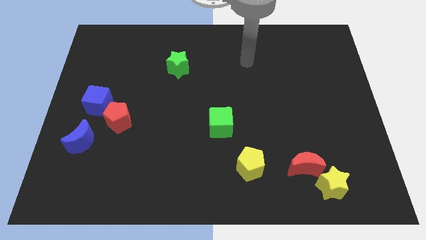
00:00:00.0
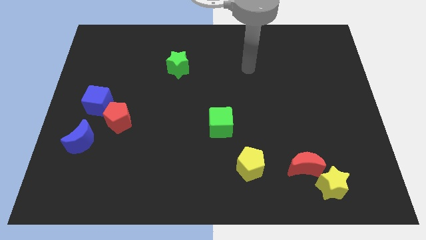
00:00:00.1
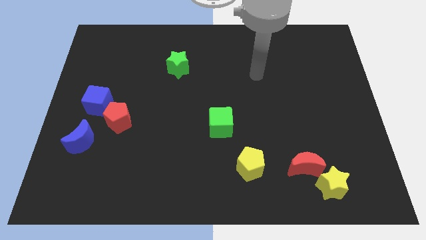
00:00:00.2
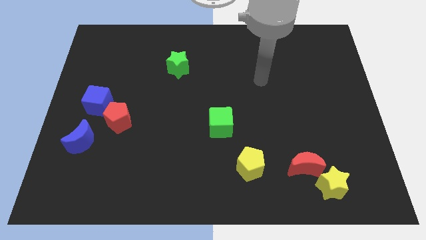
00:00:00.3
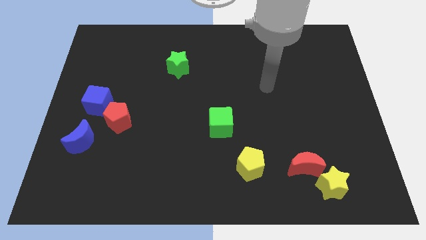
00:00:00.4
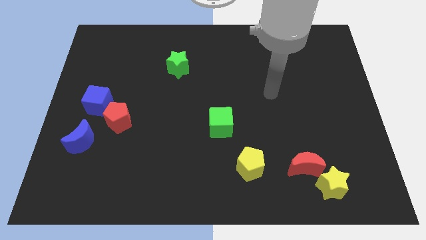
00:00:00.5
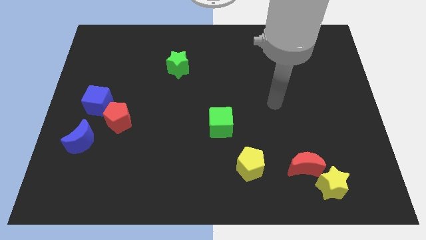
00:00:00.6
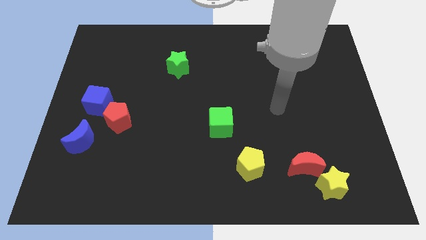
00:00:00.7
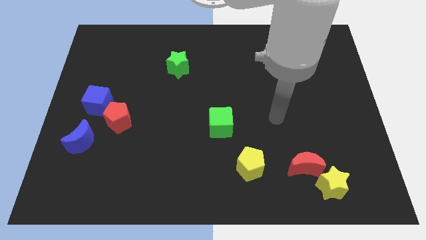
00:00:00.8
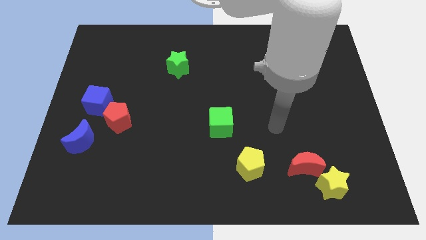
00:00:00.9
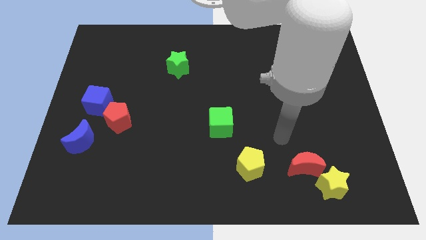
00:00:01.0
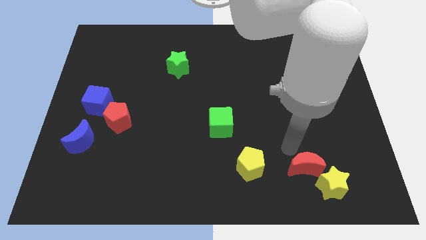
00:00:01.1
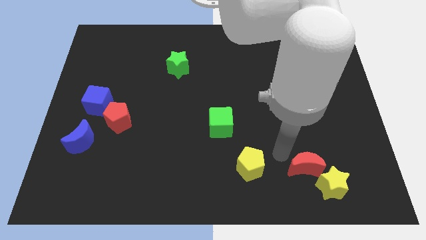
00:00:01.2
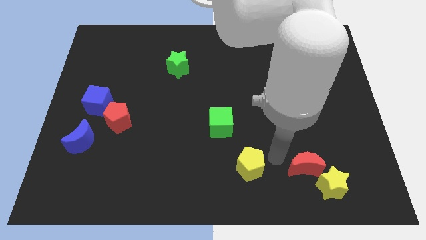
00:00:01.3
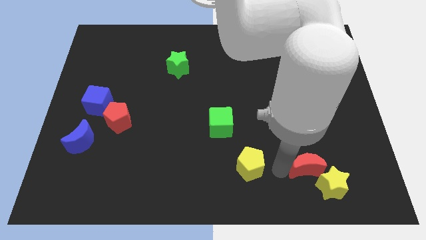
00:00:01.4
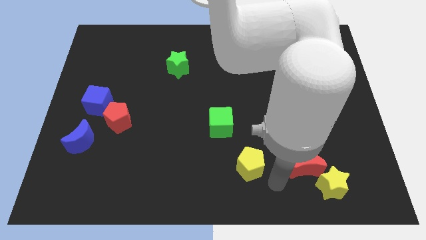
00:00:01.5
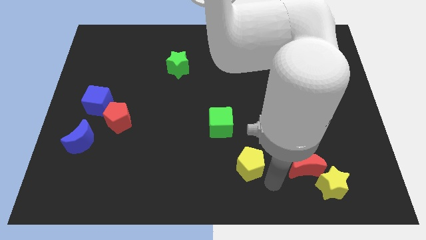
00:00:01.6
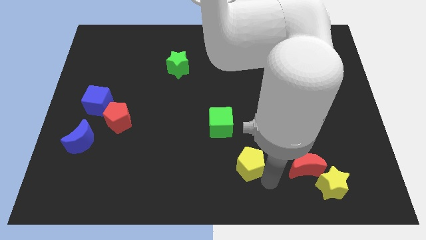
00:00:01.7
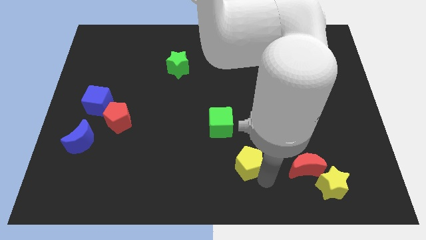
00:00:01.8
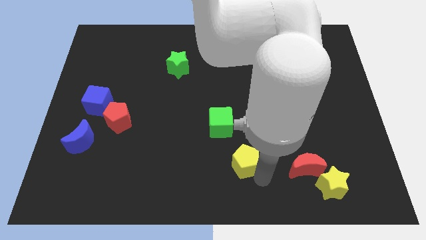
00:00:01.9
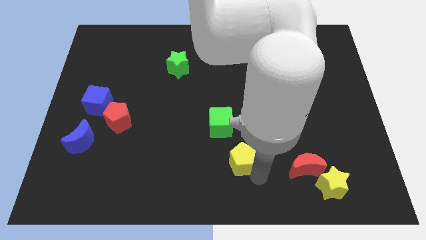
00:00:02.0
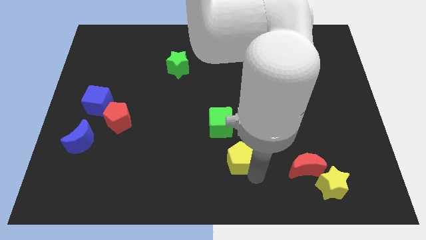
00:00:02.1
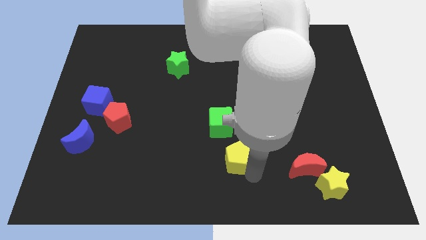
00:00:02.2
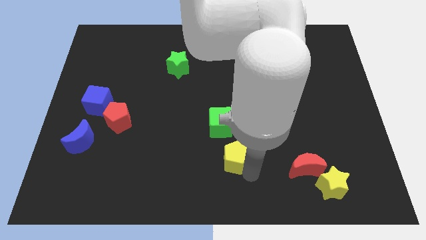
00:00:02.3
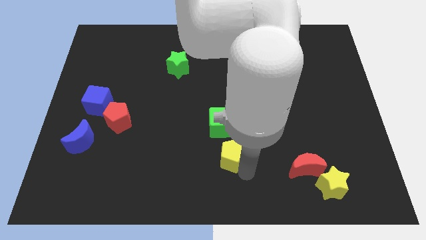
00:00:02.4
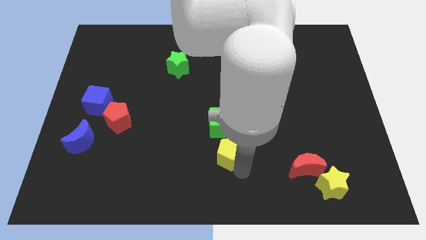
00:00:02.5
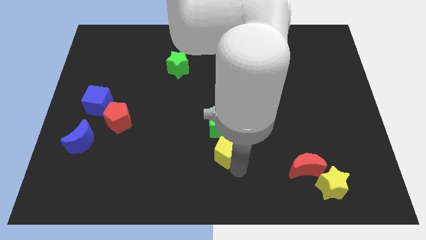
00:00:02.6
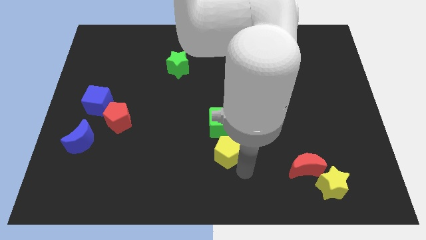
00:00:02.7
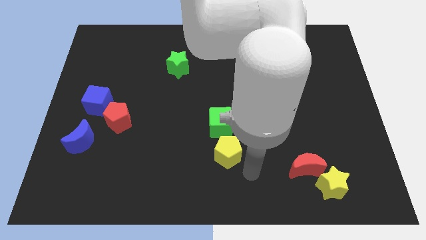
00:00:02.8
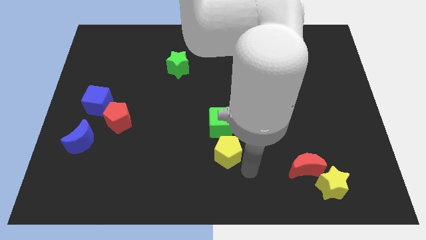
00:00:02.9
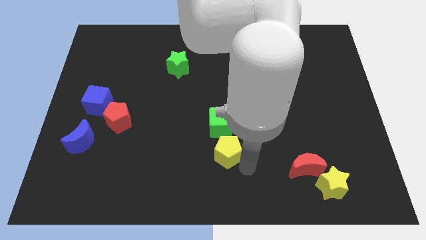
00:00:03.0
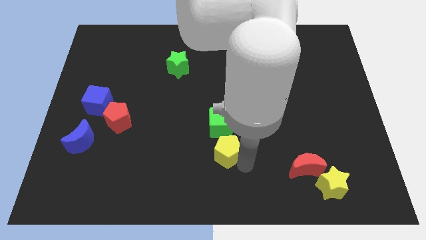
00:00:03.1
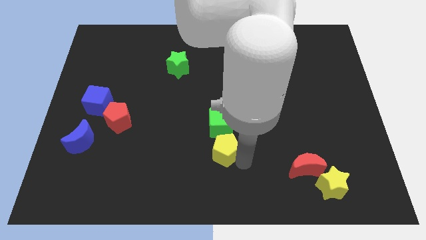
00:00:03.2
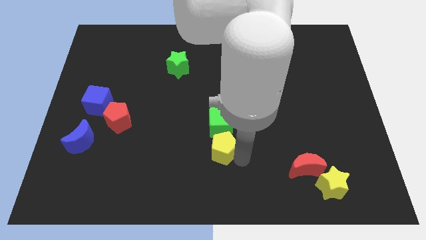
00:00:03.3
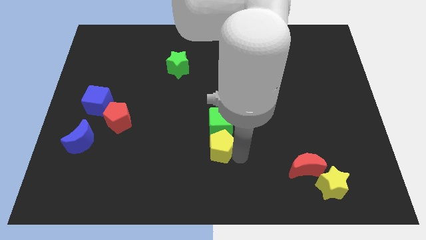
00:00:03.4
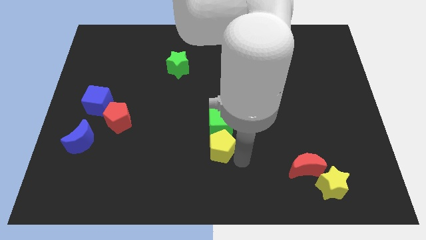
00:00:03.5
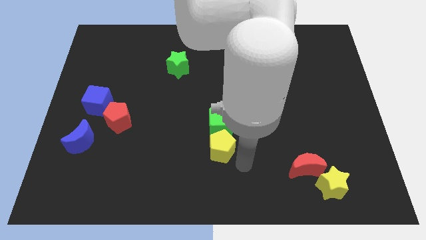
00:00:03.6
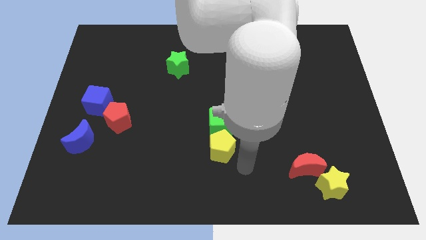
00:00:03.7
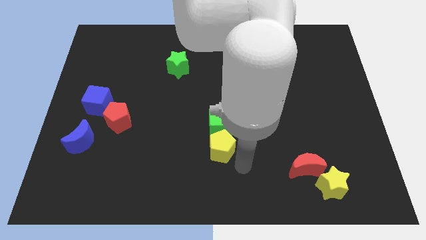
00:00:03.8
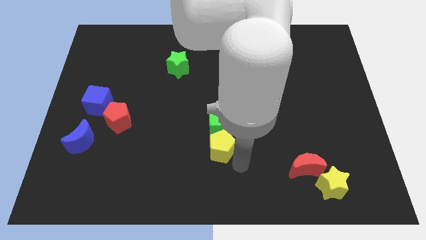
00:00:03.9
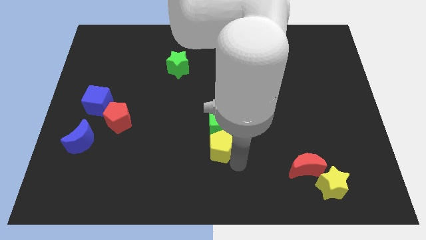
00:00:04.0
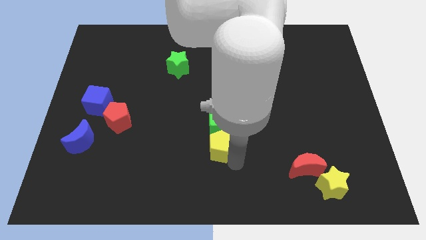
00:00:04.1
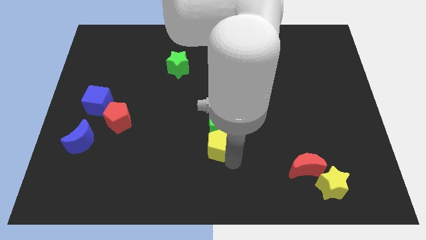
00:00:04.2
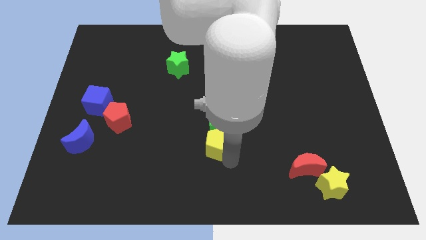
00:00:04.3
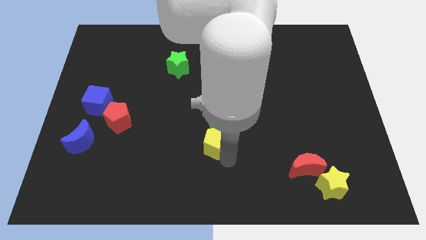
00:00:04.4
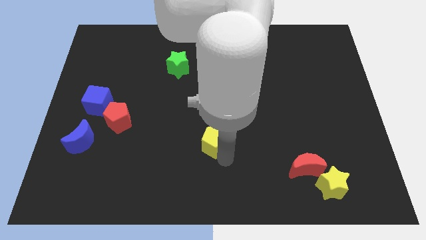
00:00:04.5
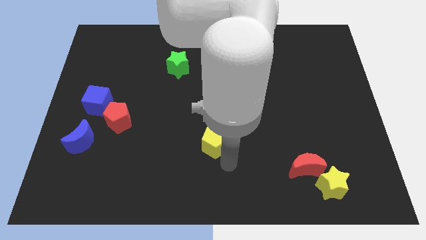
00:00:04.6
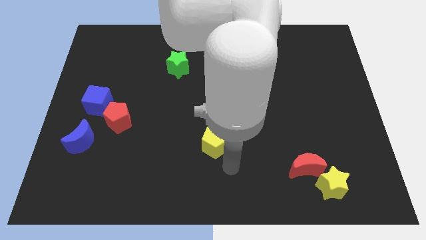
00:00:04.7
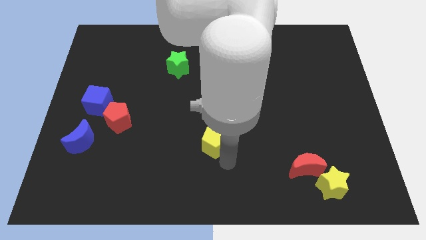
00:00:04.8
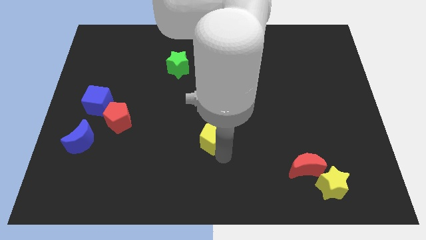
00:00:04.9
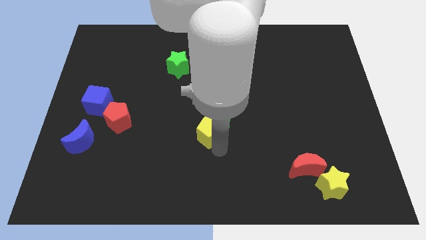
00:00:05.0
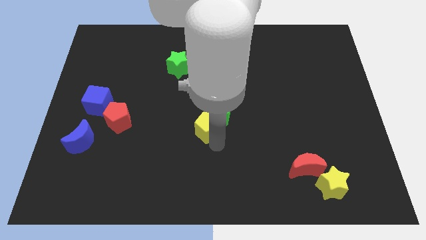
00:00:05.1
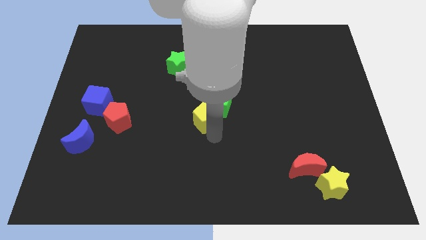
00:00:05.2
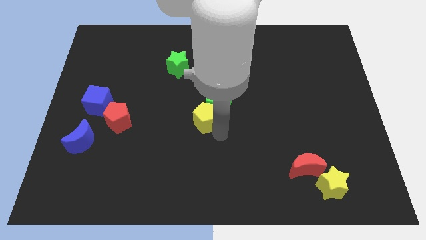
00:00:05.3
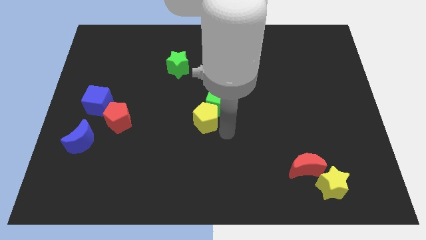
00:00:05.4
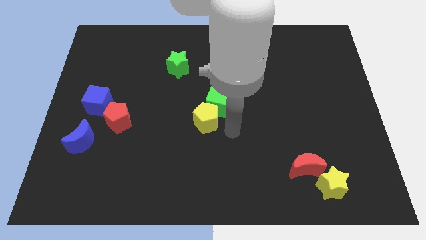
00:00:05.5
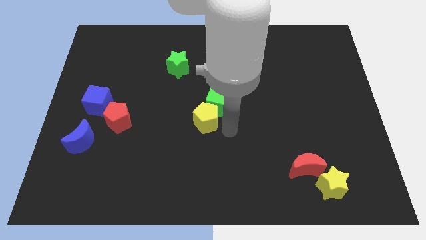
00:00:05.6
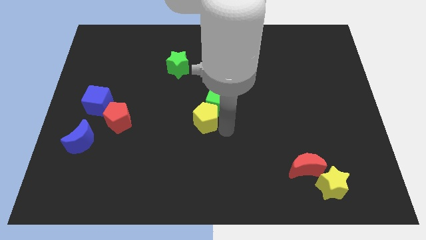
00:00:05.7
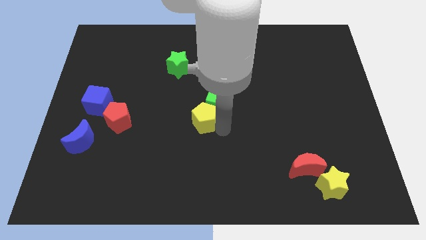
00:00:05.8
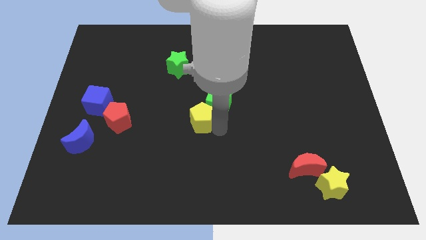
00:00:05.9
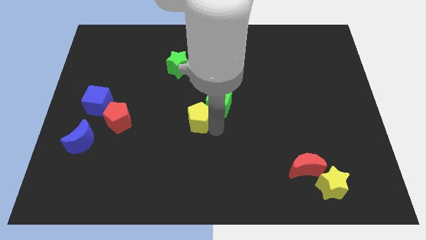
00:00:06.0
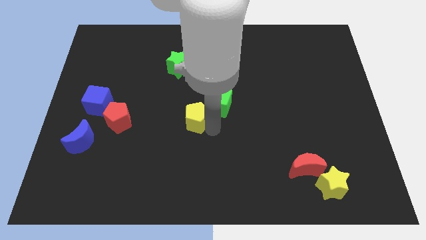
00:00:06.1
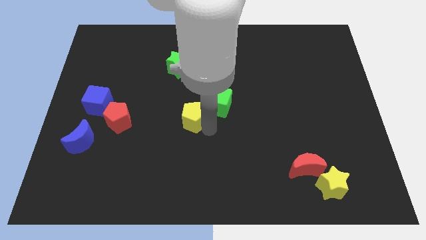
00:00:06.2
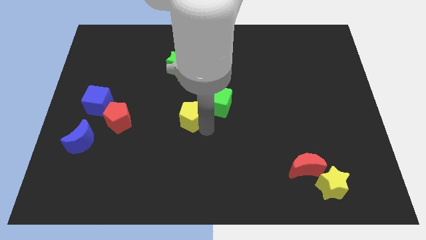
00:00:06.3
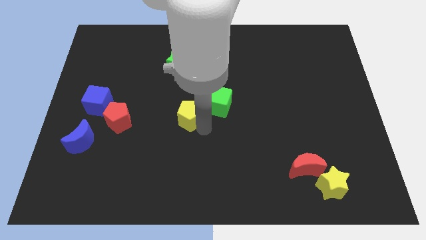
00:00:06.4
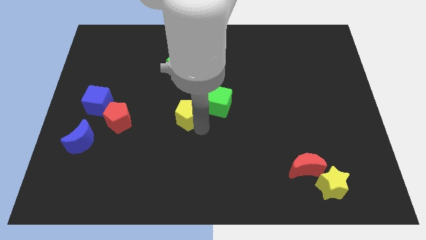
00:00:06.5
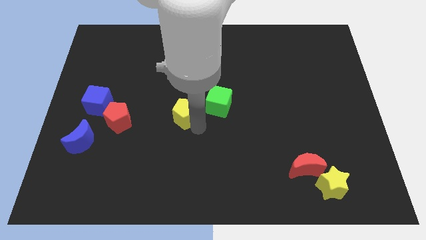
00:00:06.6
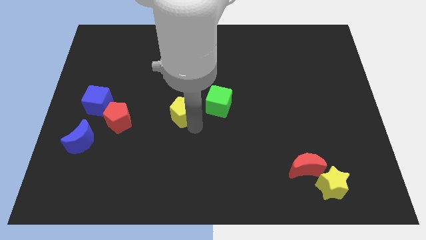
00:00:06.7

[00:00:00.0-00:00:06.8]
push the yellow pentagon diagonally up and left

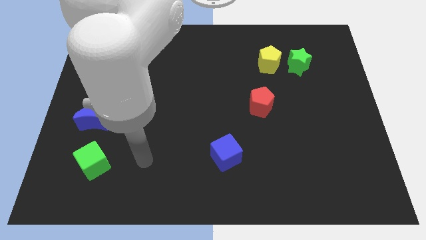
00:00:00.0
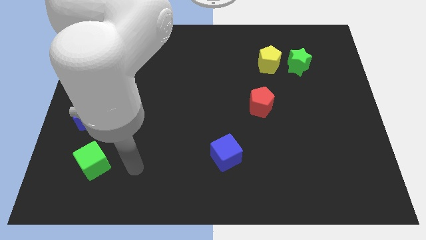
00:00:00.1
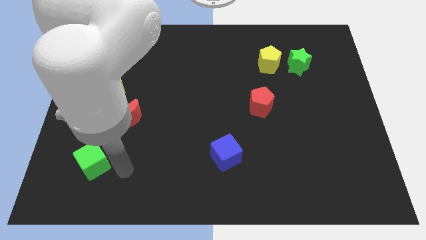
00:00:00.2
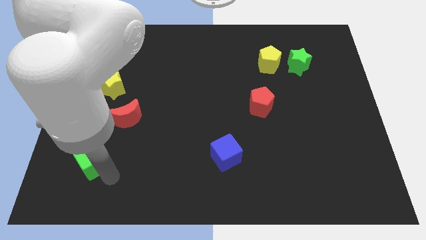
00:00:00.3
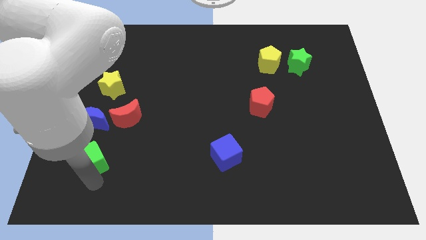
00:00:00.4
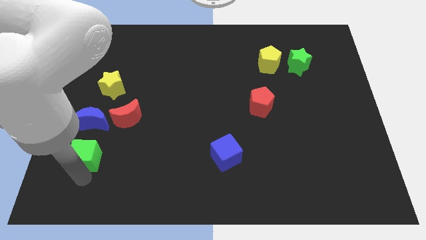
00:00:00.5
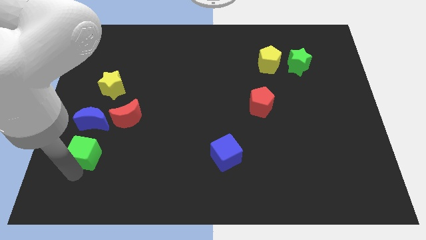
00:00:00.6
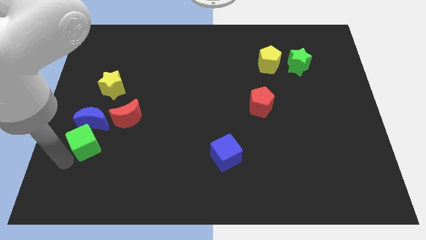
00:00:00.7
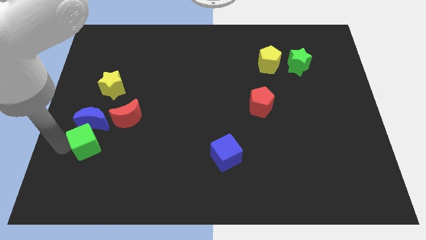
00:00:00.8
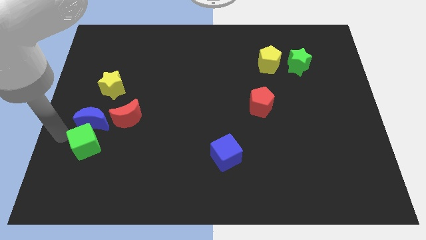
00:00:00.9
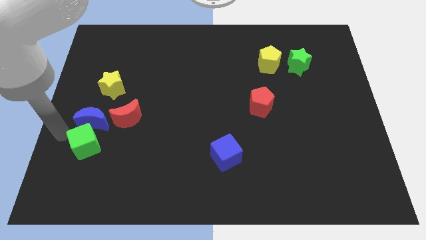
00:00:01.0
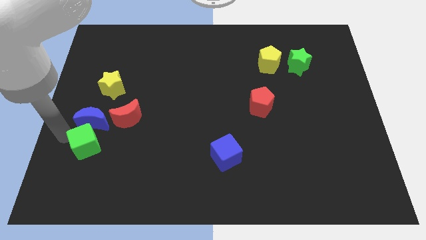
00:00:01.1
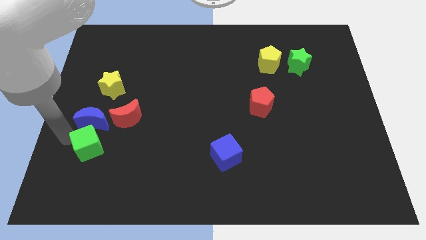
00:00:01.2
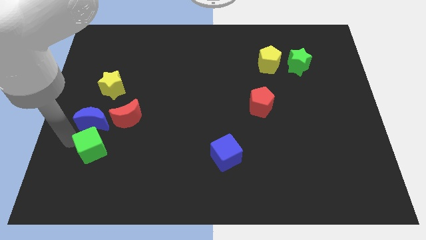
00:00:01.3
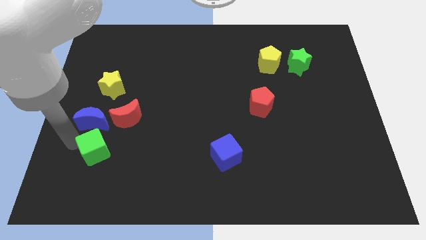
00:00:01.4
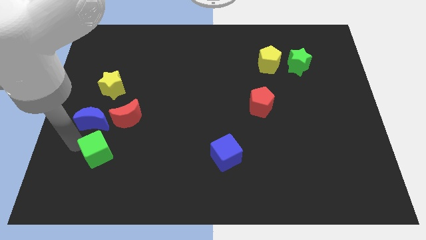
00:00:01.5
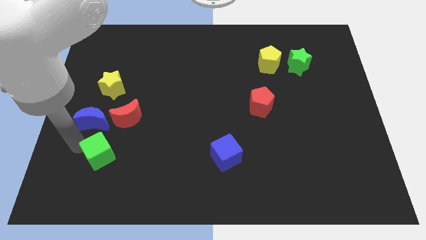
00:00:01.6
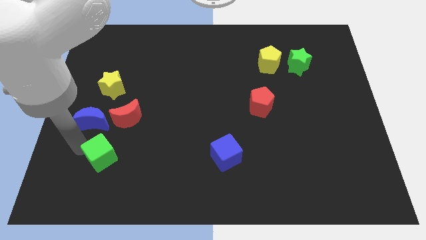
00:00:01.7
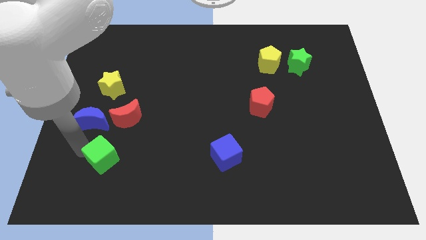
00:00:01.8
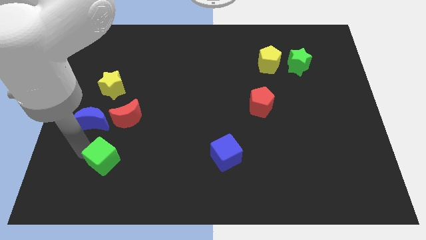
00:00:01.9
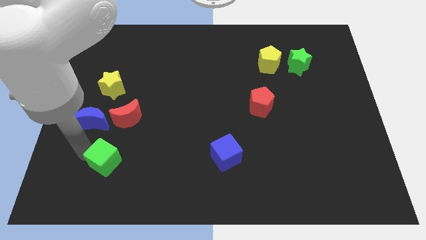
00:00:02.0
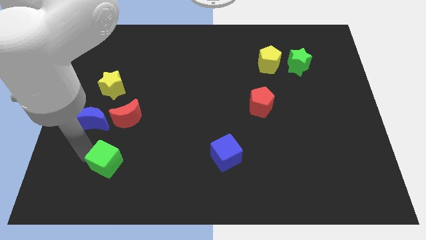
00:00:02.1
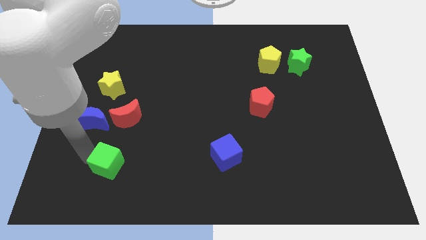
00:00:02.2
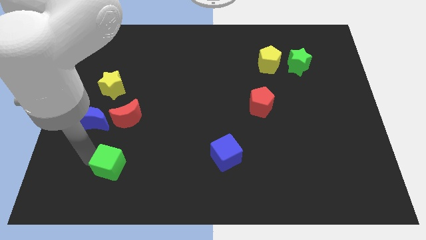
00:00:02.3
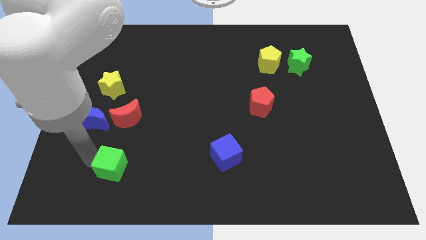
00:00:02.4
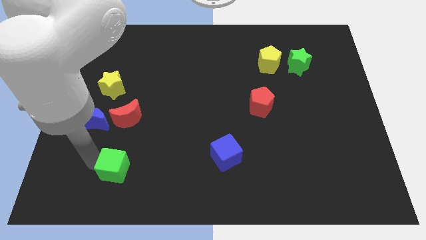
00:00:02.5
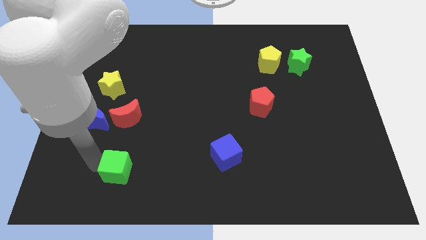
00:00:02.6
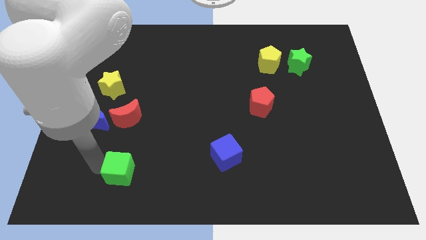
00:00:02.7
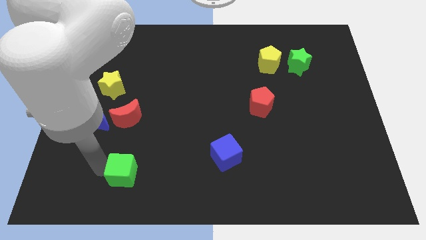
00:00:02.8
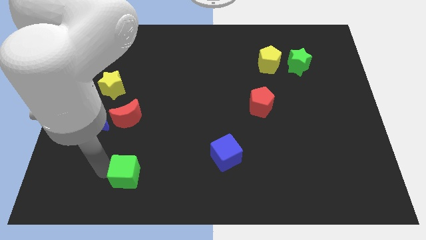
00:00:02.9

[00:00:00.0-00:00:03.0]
push the green cube somewhat right
